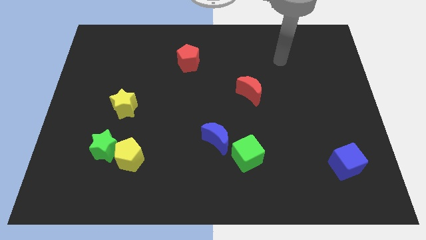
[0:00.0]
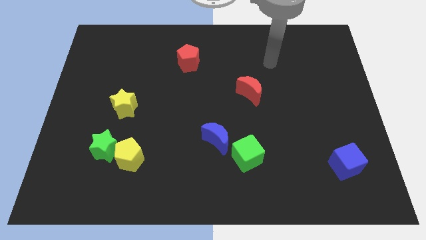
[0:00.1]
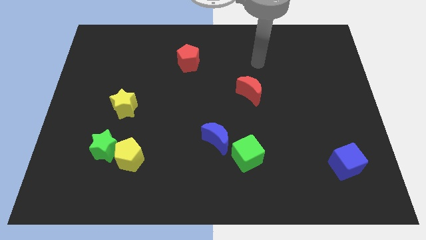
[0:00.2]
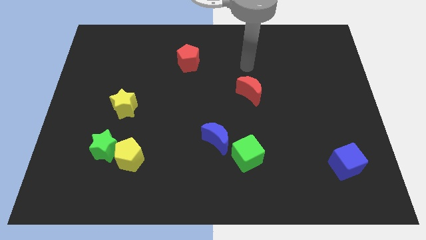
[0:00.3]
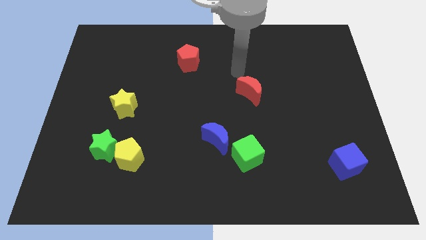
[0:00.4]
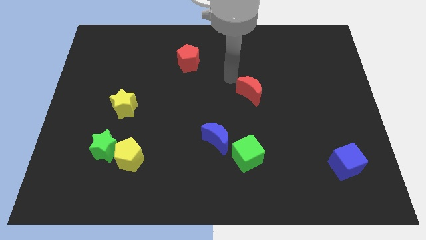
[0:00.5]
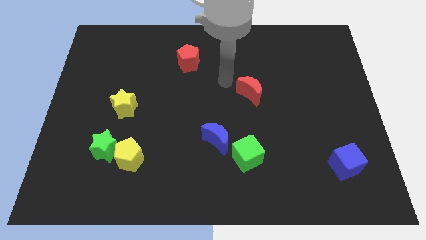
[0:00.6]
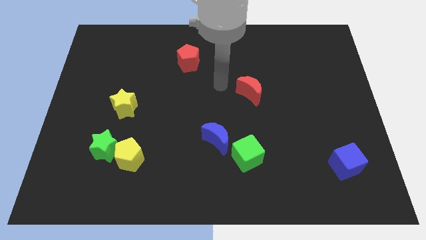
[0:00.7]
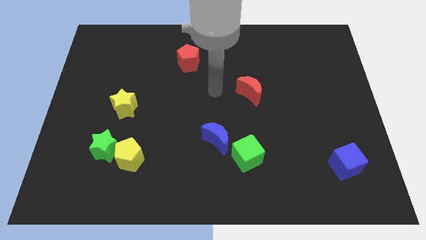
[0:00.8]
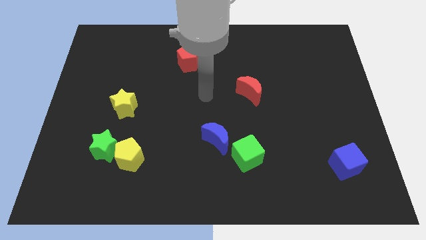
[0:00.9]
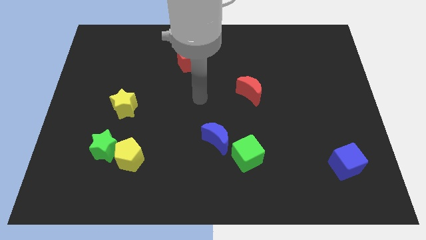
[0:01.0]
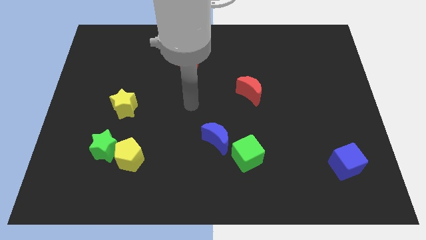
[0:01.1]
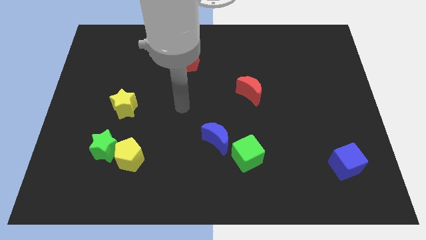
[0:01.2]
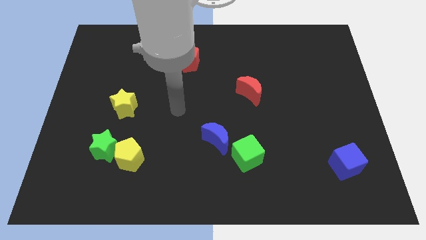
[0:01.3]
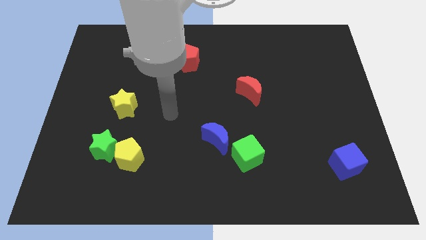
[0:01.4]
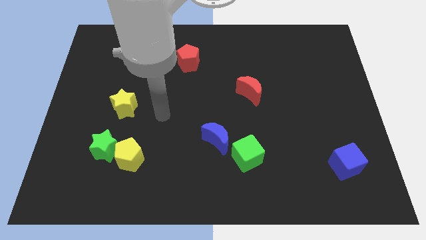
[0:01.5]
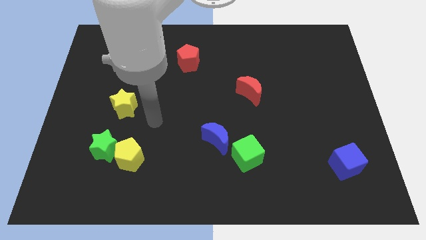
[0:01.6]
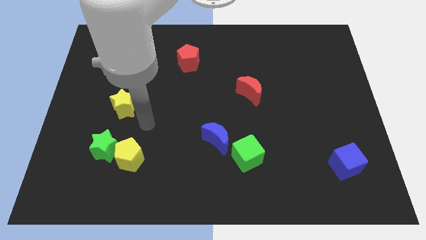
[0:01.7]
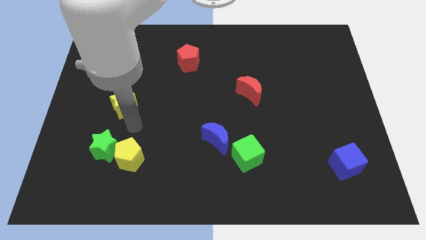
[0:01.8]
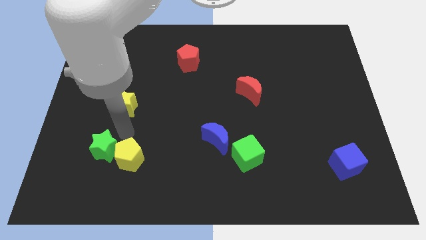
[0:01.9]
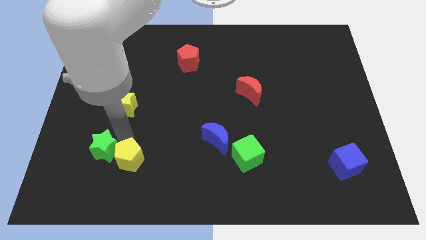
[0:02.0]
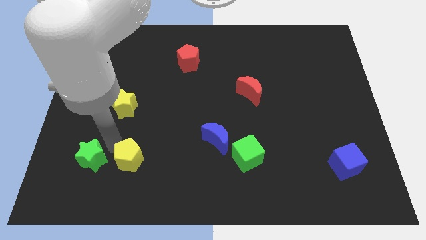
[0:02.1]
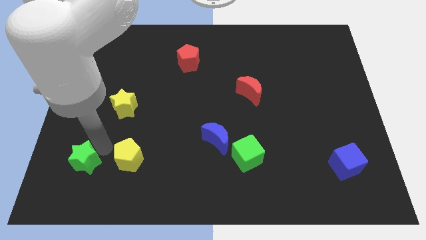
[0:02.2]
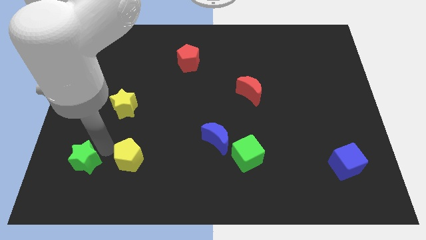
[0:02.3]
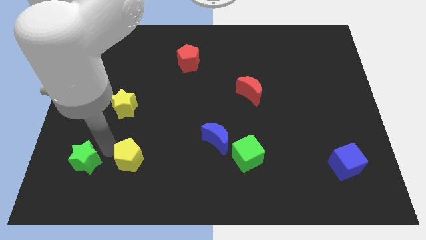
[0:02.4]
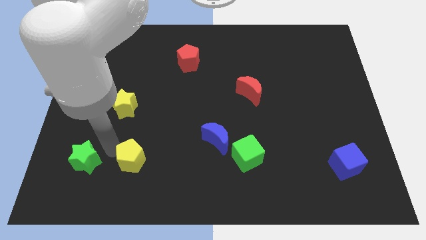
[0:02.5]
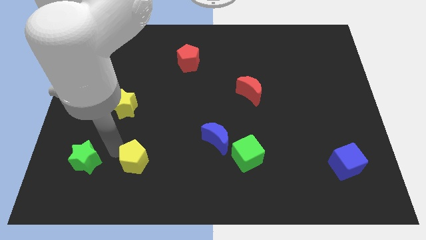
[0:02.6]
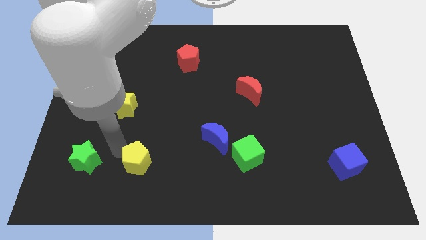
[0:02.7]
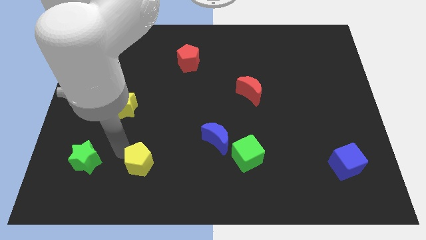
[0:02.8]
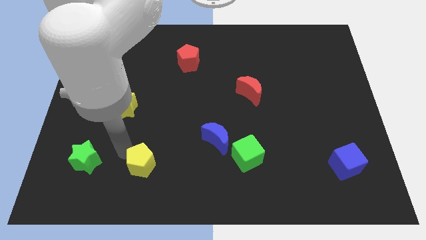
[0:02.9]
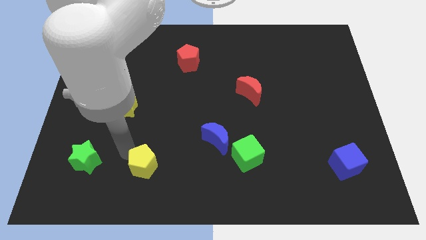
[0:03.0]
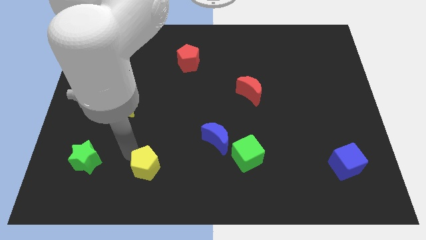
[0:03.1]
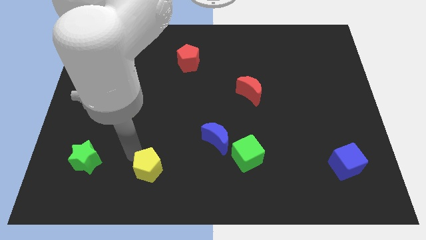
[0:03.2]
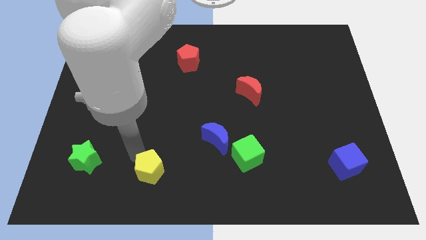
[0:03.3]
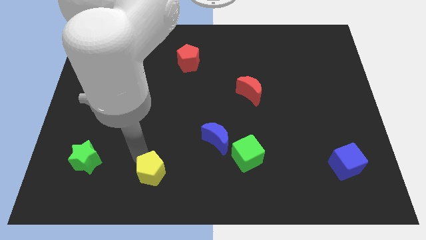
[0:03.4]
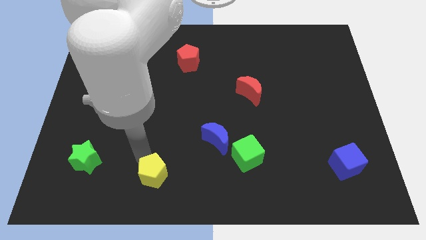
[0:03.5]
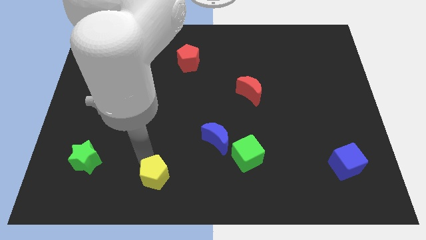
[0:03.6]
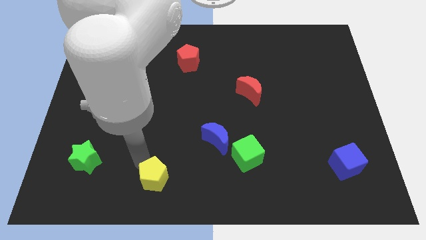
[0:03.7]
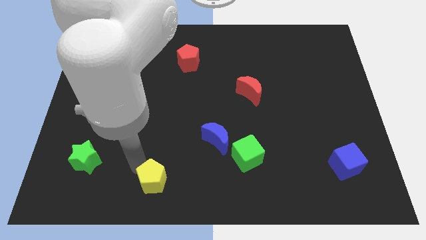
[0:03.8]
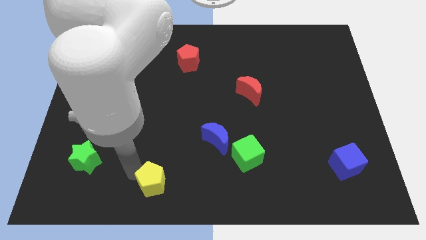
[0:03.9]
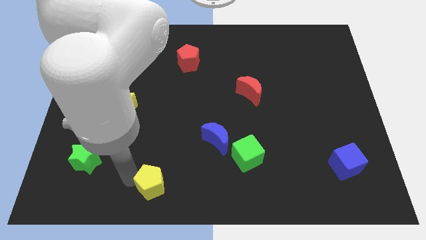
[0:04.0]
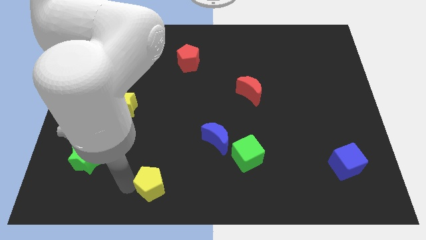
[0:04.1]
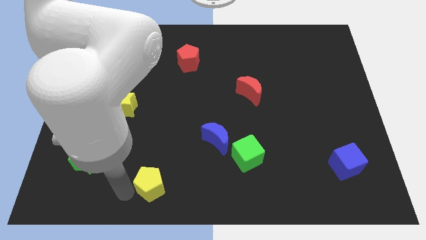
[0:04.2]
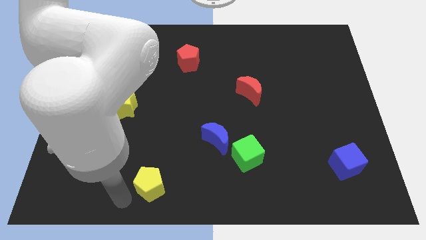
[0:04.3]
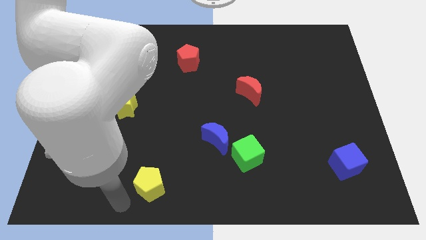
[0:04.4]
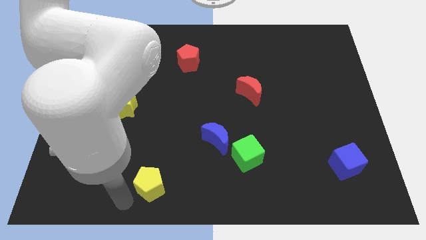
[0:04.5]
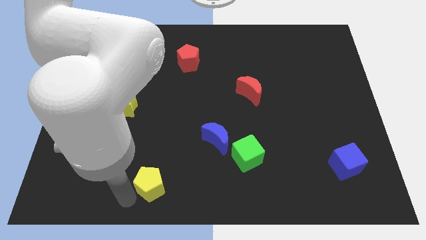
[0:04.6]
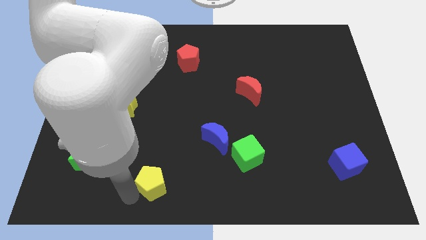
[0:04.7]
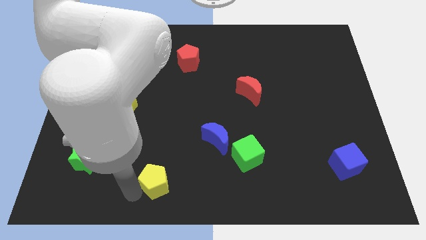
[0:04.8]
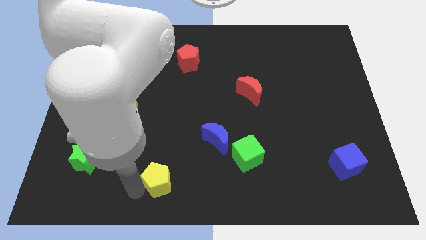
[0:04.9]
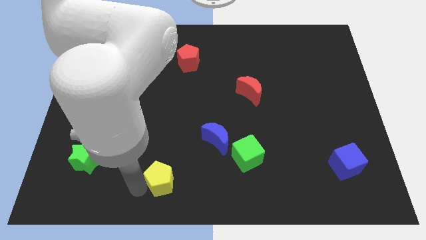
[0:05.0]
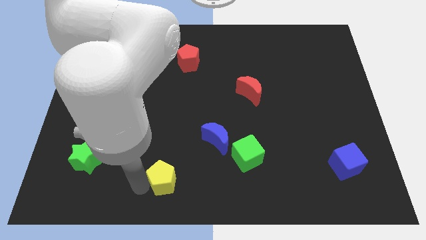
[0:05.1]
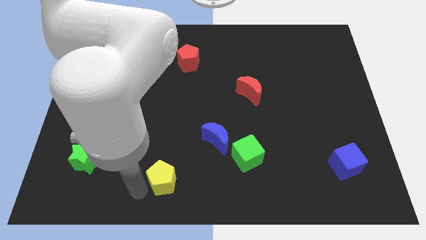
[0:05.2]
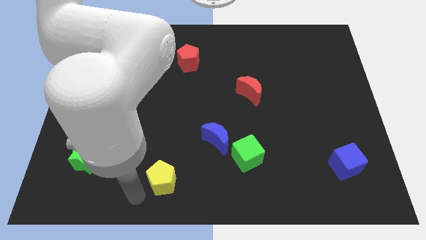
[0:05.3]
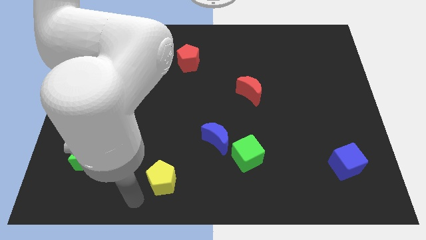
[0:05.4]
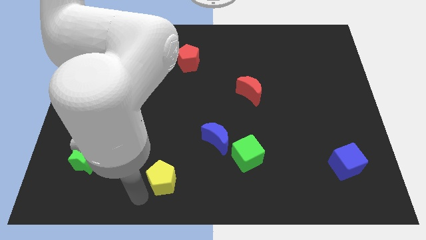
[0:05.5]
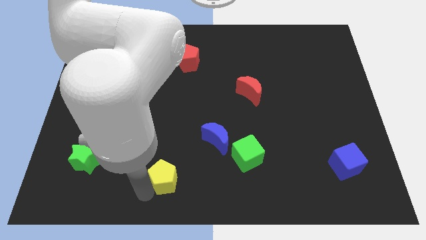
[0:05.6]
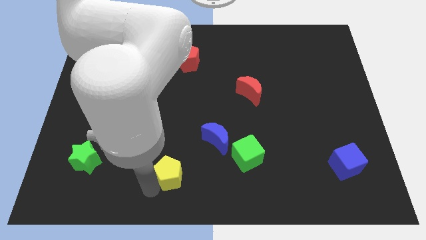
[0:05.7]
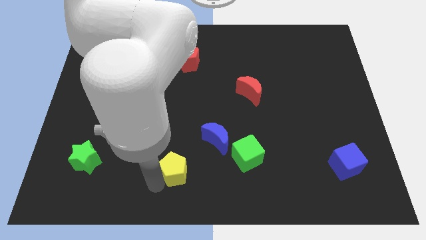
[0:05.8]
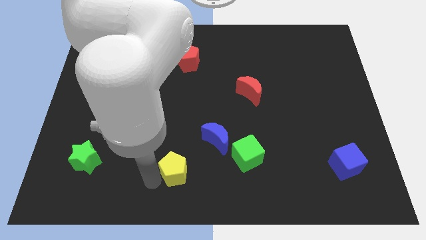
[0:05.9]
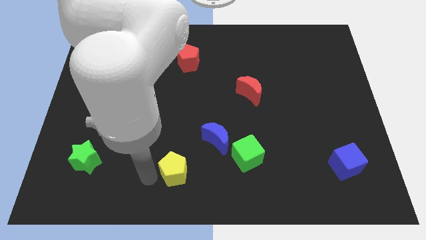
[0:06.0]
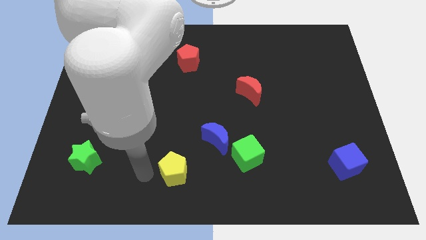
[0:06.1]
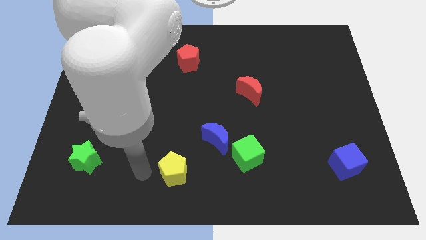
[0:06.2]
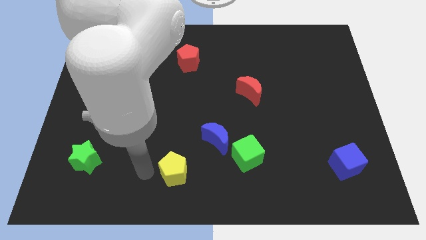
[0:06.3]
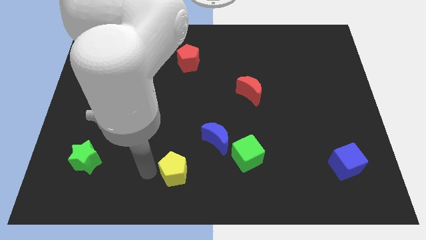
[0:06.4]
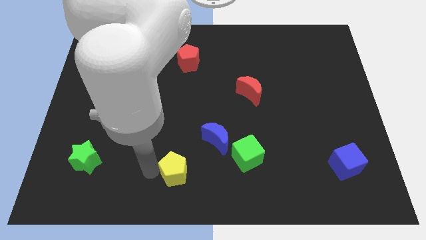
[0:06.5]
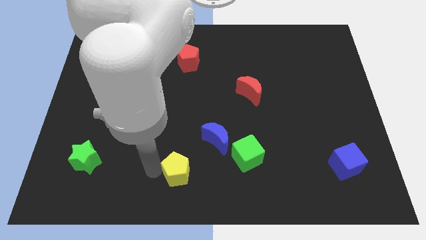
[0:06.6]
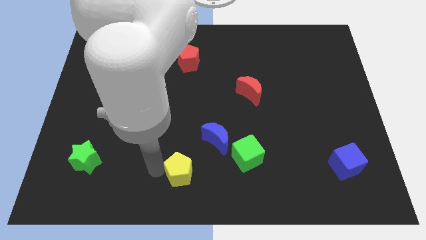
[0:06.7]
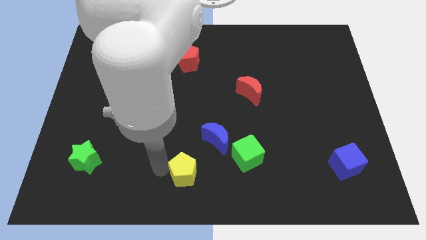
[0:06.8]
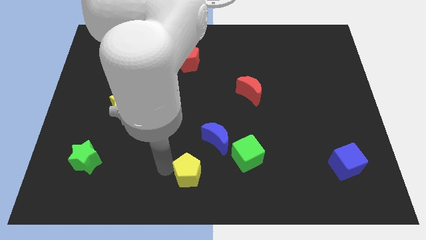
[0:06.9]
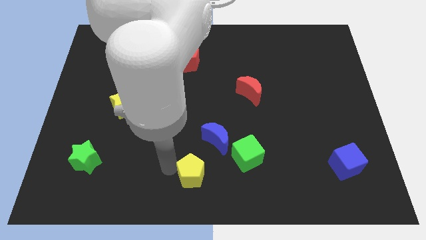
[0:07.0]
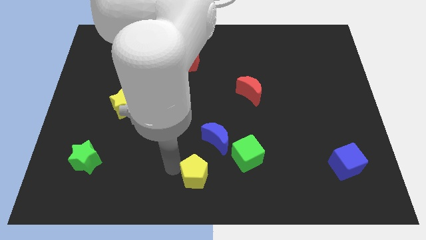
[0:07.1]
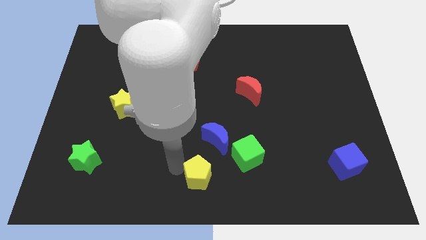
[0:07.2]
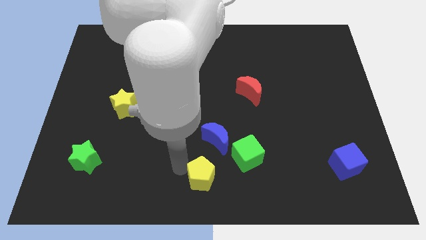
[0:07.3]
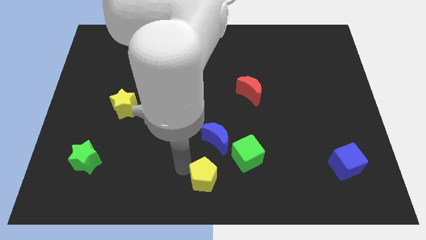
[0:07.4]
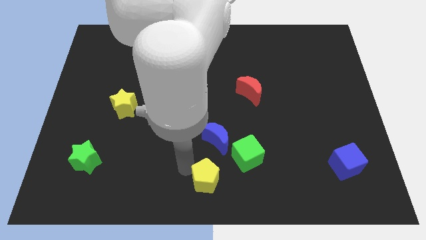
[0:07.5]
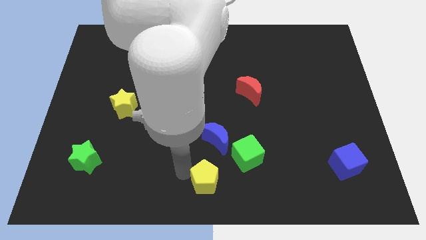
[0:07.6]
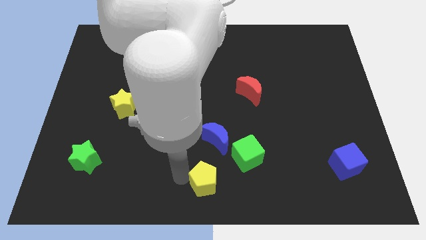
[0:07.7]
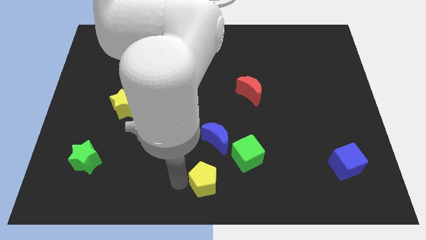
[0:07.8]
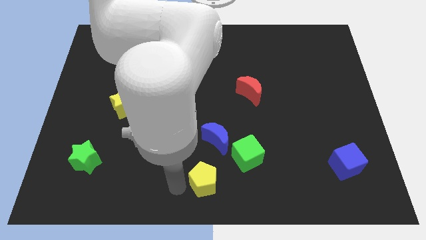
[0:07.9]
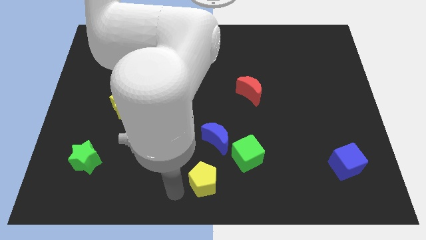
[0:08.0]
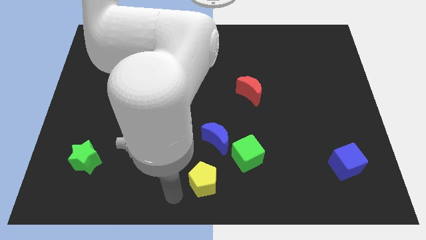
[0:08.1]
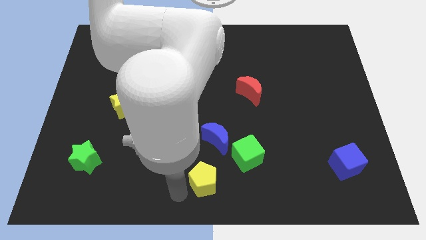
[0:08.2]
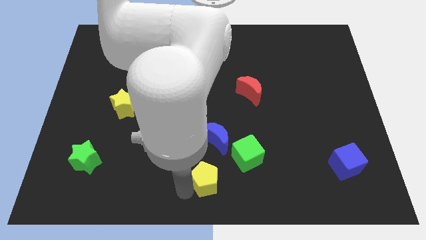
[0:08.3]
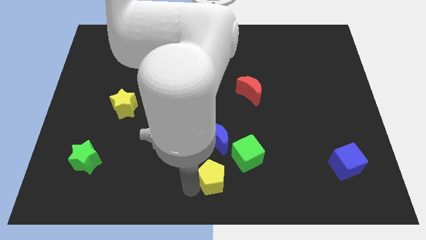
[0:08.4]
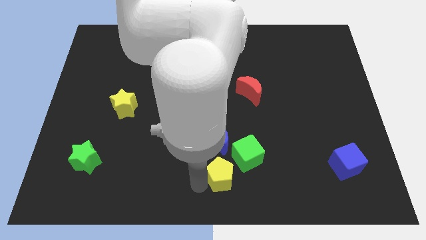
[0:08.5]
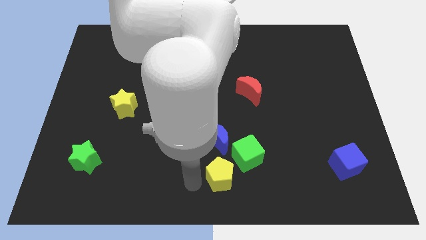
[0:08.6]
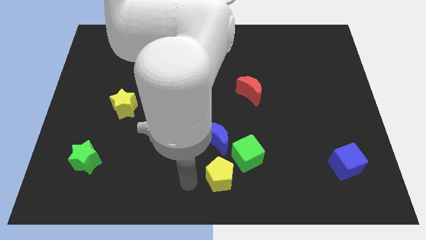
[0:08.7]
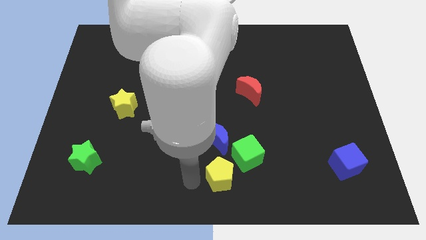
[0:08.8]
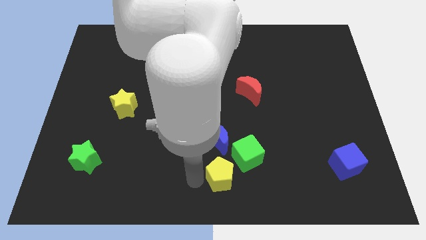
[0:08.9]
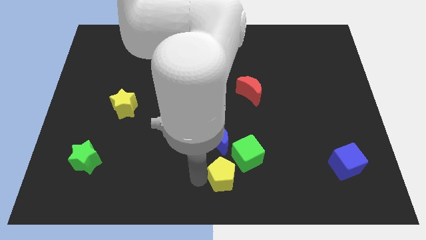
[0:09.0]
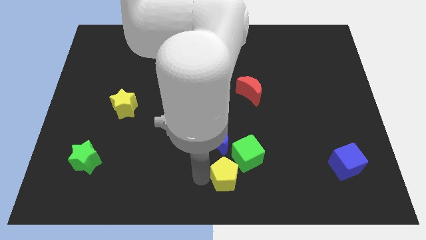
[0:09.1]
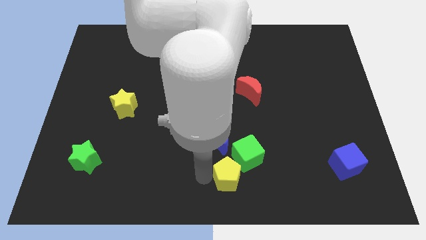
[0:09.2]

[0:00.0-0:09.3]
slide the yellow pentagon to the right
